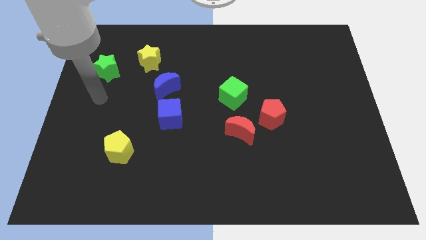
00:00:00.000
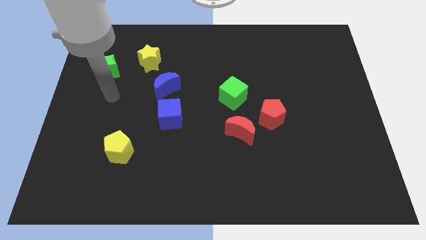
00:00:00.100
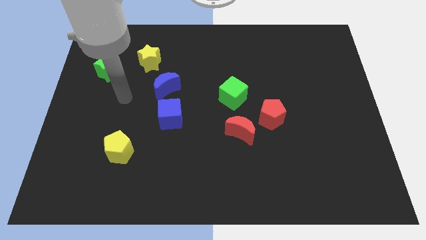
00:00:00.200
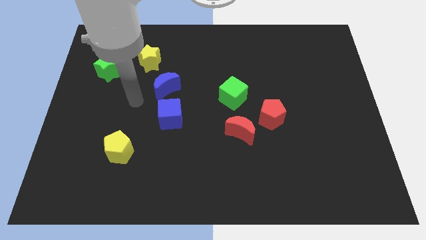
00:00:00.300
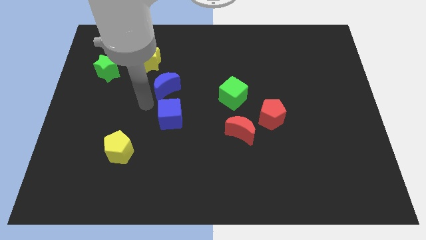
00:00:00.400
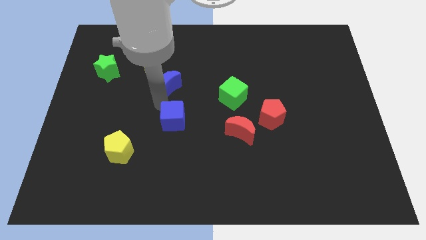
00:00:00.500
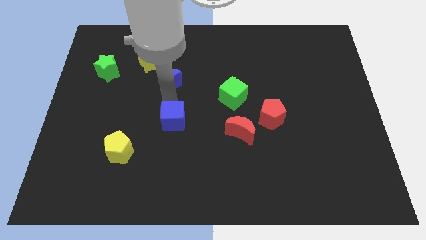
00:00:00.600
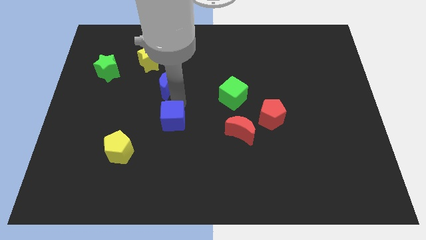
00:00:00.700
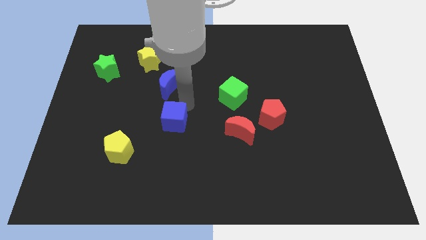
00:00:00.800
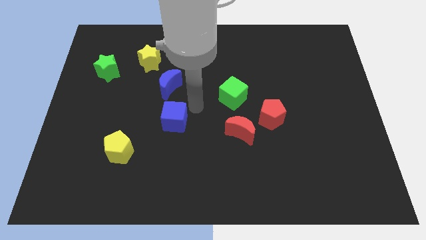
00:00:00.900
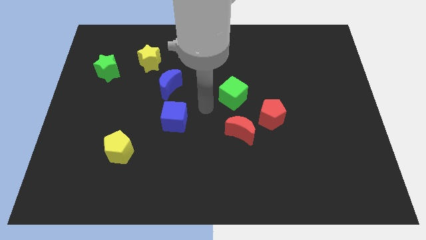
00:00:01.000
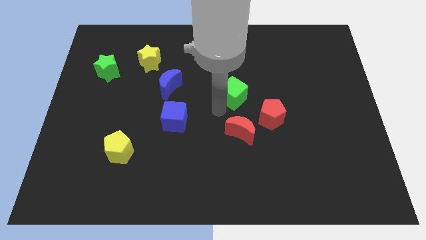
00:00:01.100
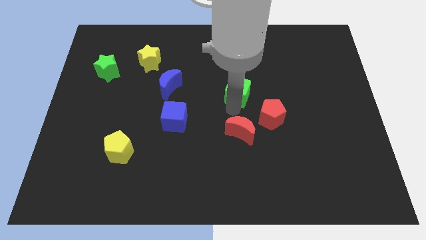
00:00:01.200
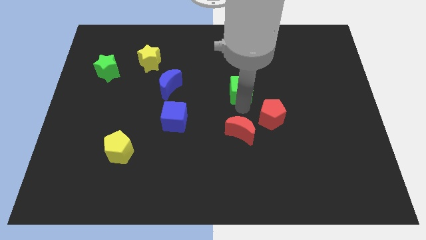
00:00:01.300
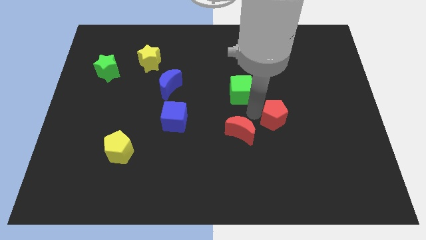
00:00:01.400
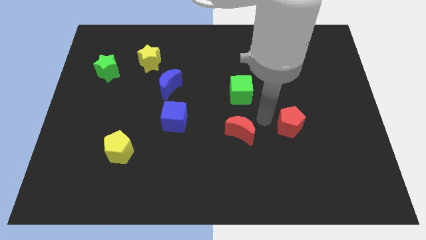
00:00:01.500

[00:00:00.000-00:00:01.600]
move the red moon away from the red pentagon

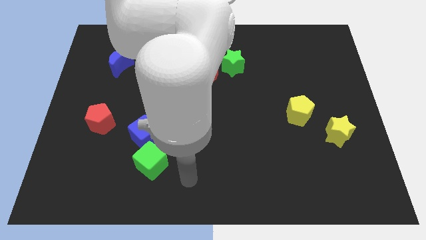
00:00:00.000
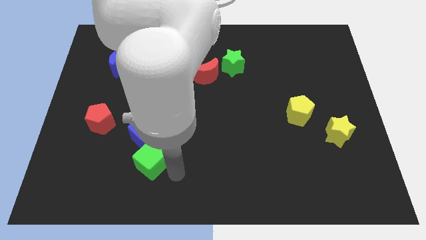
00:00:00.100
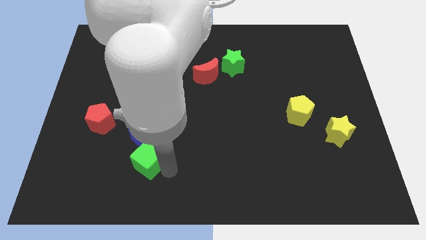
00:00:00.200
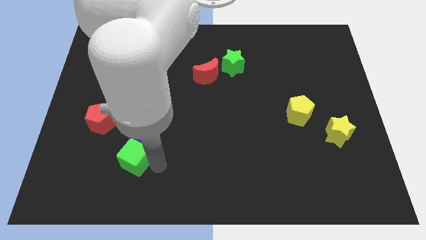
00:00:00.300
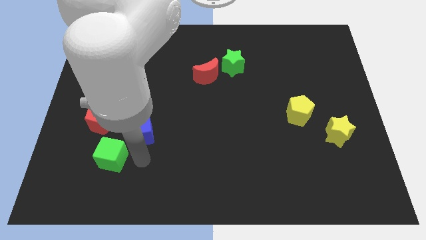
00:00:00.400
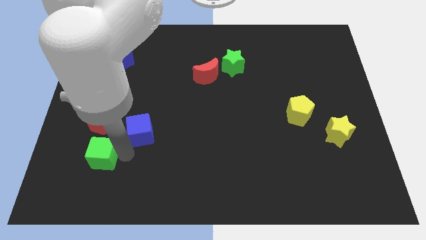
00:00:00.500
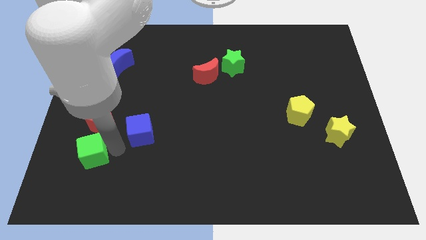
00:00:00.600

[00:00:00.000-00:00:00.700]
pull the blue cube apart from the green cube

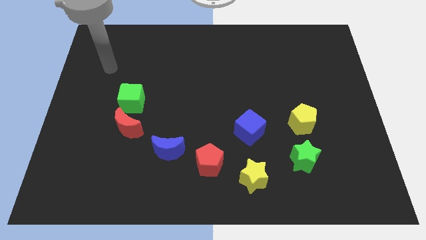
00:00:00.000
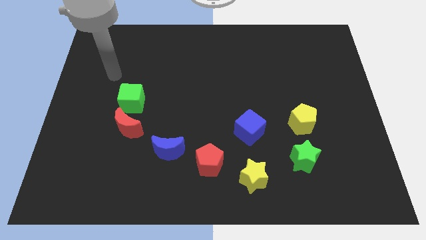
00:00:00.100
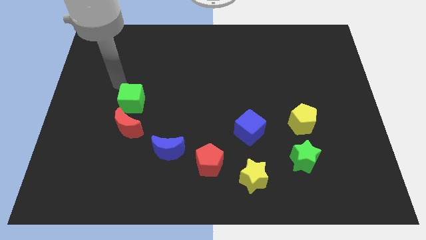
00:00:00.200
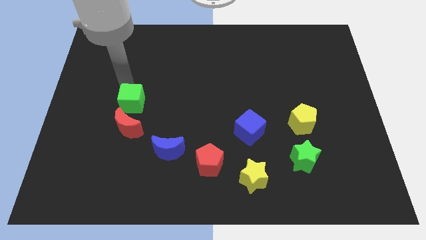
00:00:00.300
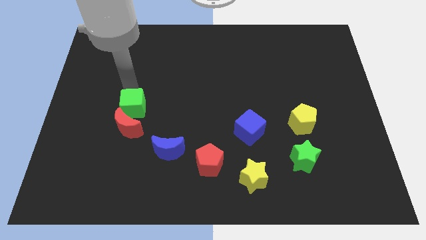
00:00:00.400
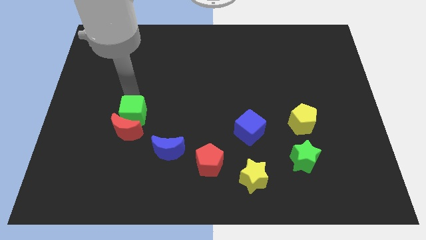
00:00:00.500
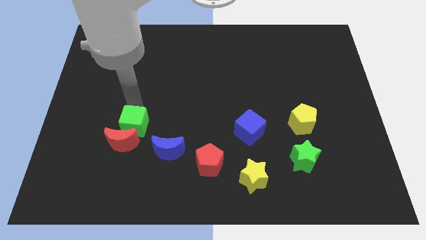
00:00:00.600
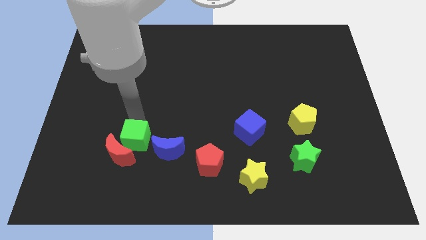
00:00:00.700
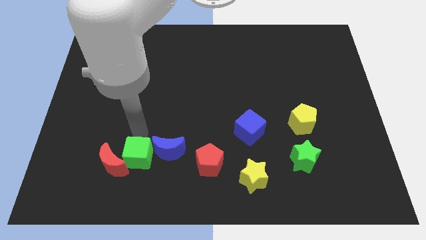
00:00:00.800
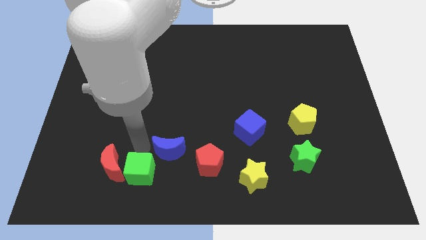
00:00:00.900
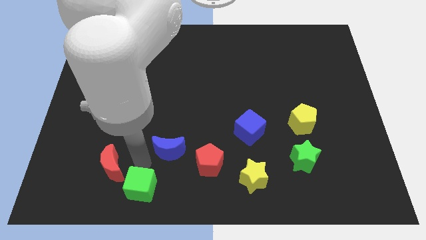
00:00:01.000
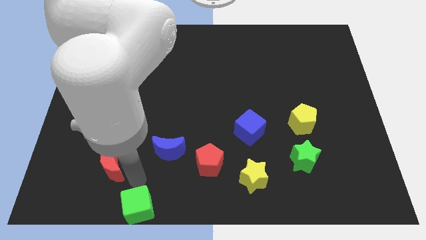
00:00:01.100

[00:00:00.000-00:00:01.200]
pull the red moon apart from the green cube

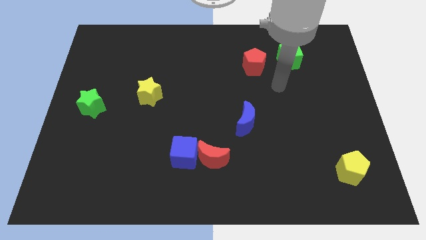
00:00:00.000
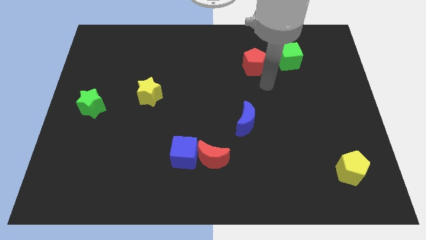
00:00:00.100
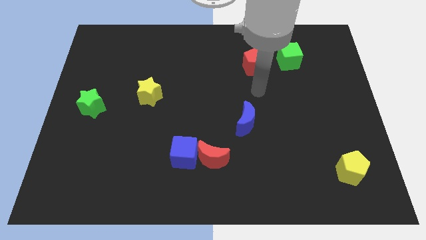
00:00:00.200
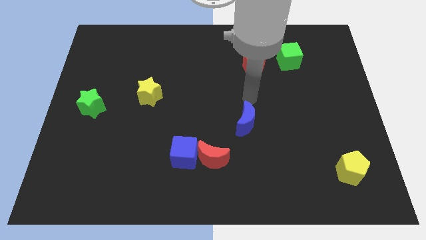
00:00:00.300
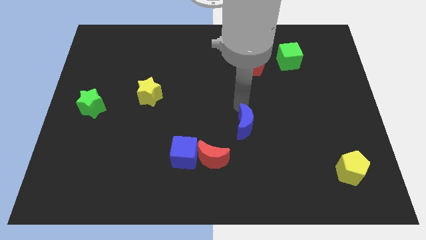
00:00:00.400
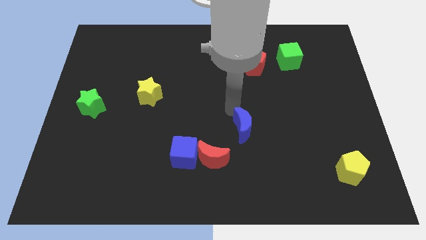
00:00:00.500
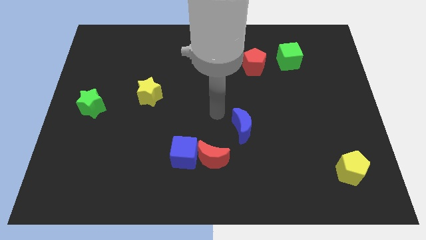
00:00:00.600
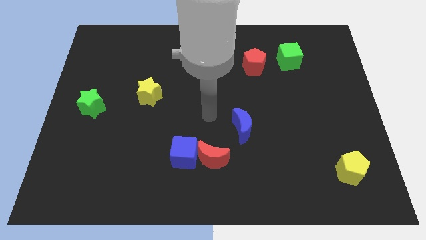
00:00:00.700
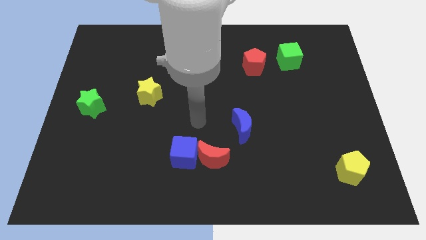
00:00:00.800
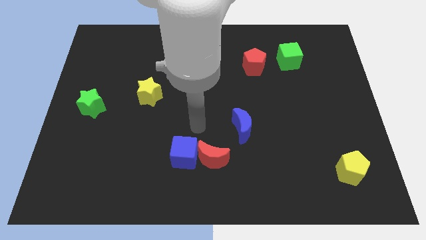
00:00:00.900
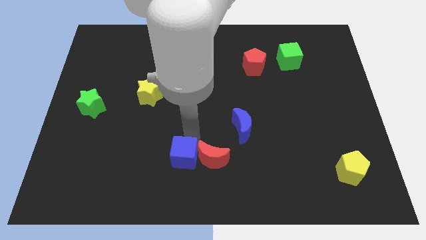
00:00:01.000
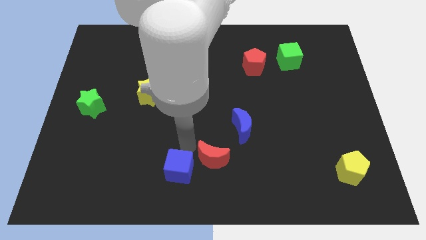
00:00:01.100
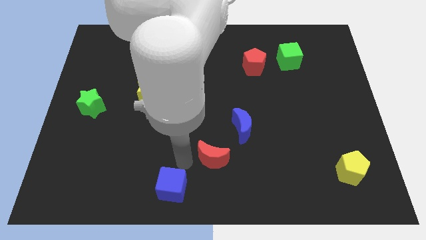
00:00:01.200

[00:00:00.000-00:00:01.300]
separate the red moon from the blue cube

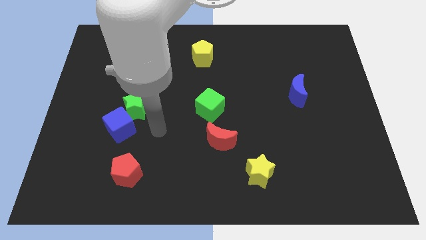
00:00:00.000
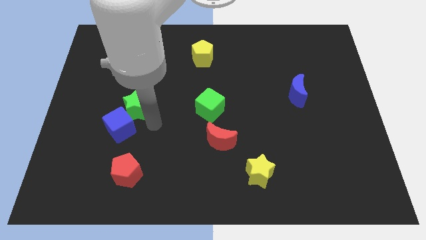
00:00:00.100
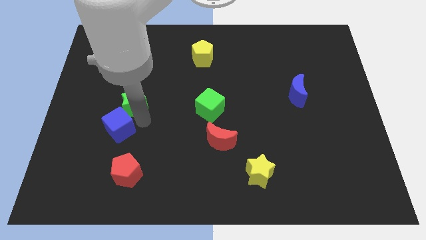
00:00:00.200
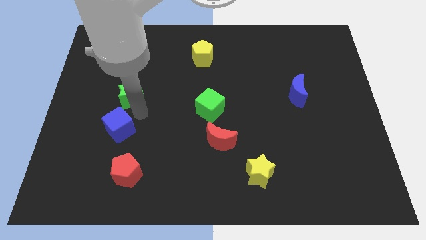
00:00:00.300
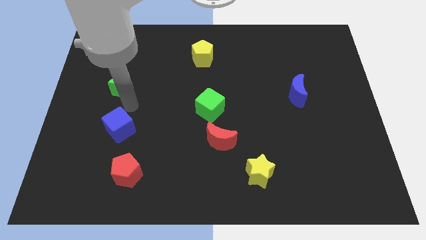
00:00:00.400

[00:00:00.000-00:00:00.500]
separate the blue cube from the green star

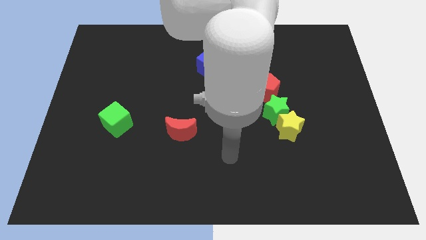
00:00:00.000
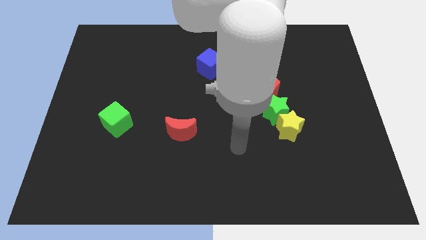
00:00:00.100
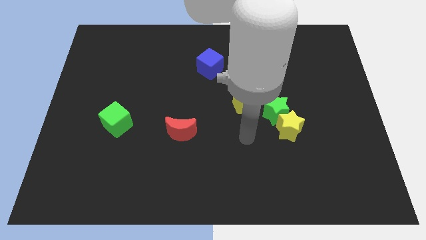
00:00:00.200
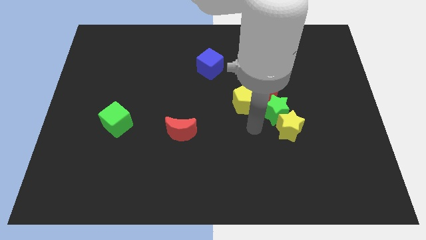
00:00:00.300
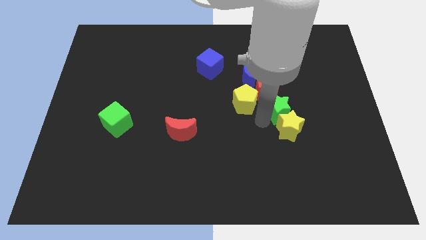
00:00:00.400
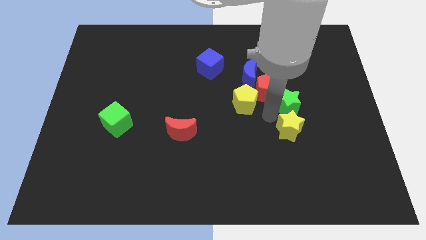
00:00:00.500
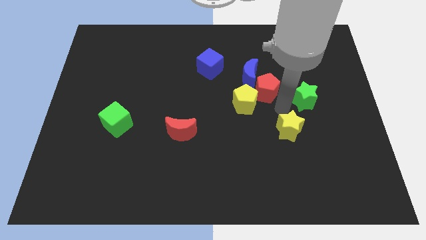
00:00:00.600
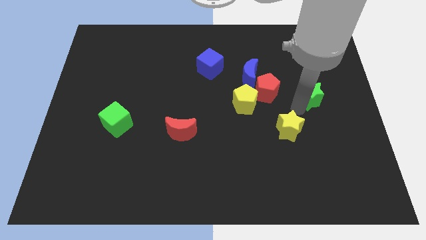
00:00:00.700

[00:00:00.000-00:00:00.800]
pull the yellow star apart from the green star

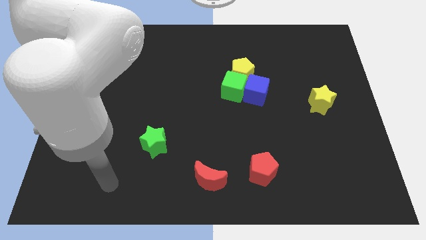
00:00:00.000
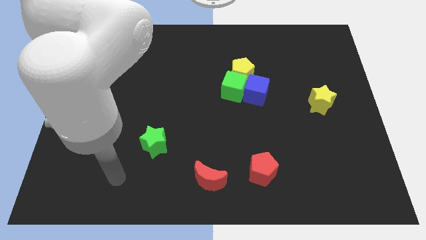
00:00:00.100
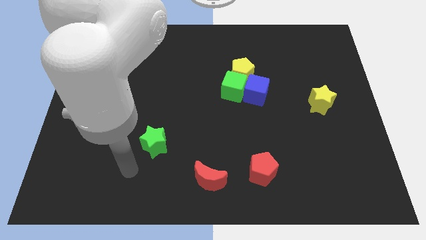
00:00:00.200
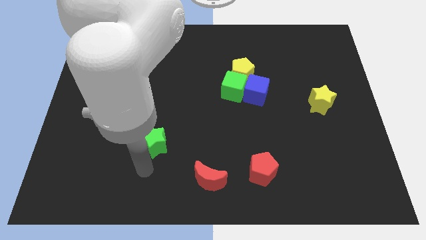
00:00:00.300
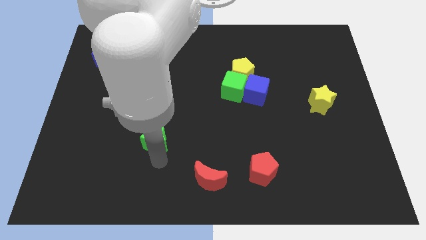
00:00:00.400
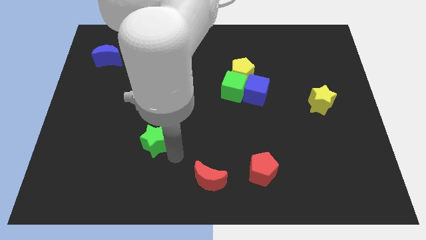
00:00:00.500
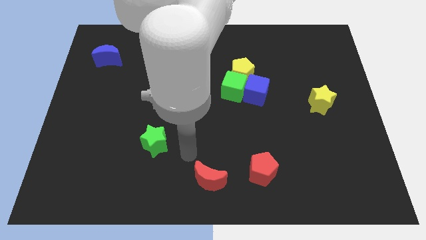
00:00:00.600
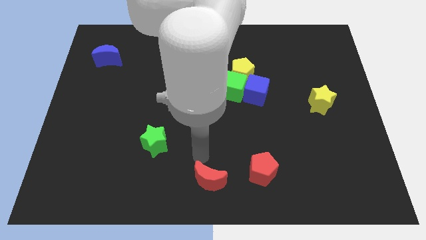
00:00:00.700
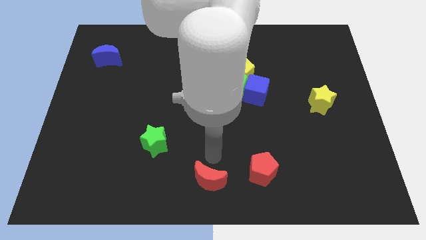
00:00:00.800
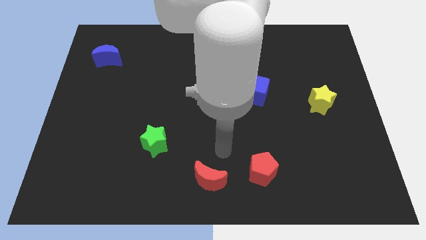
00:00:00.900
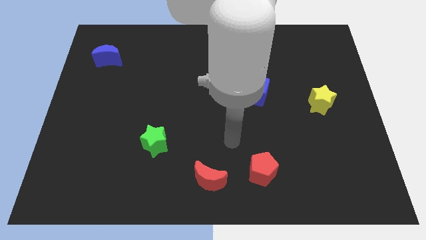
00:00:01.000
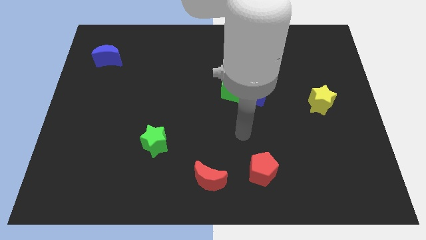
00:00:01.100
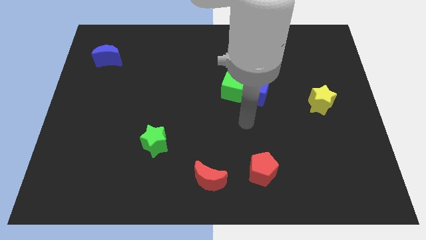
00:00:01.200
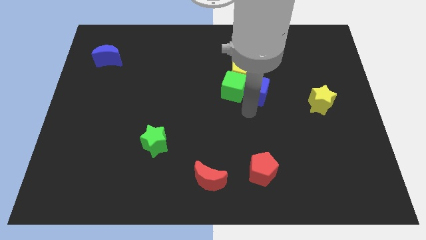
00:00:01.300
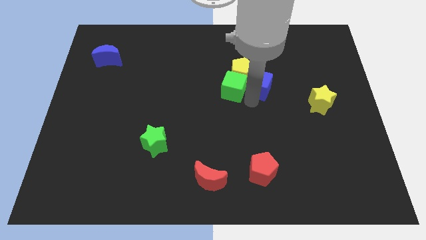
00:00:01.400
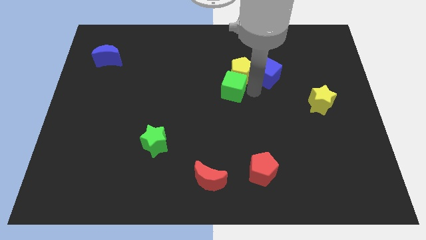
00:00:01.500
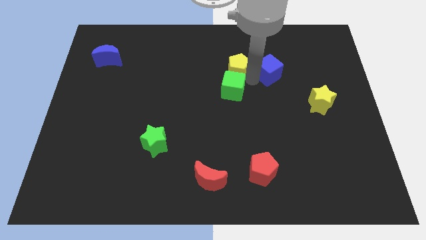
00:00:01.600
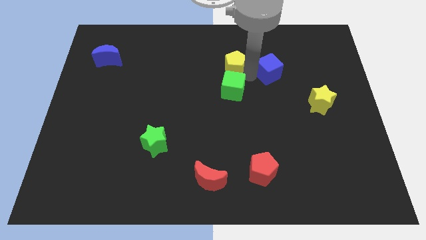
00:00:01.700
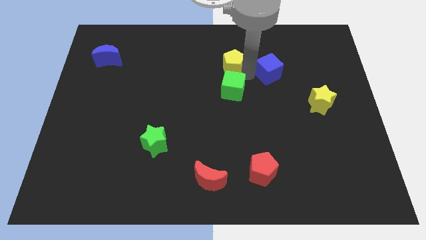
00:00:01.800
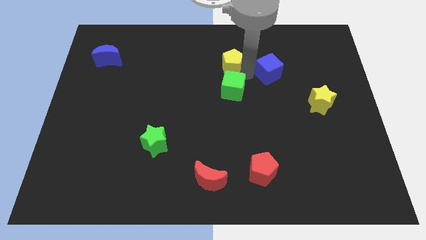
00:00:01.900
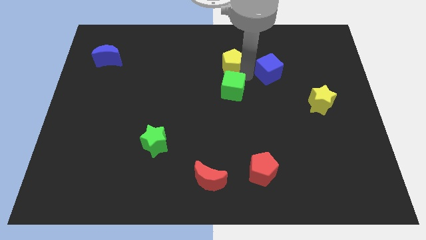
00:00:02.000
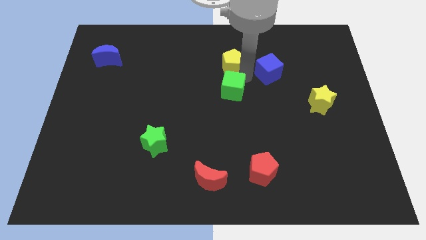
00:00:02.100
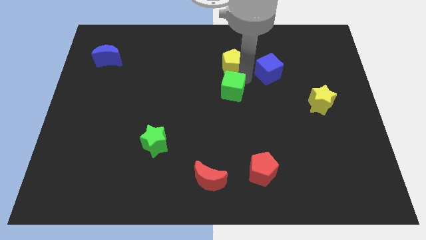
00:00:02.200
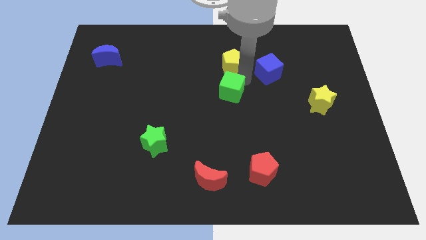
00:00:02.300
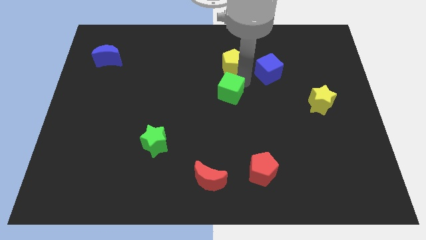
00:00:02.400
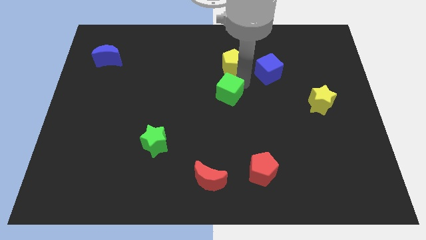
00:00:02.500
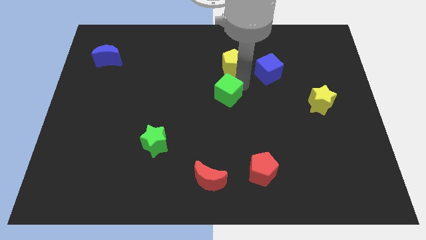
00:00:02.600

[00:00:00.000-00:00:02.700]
separate the green cube from the blue cube and yellow pentagon

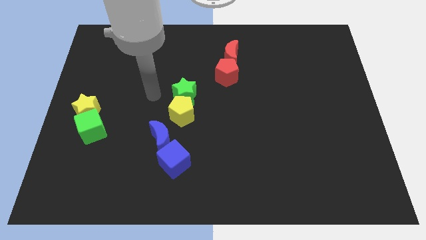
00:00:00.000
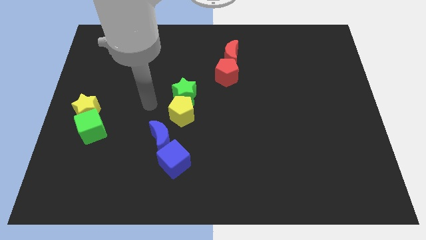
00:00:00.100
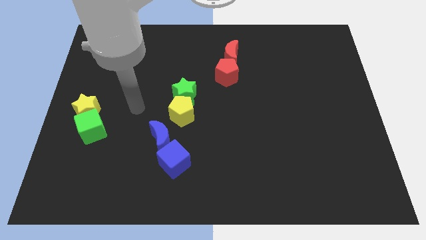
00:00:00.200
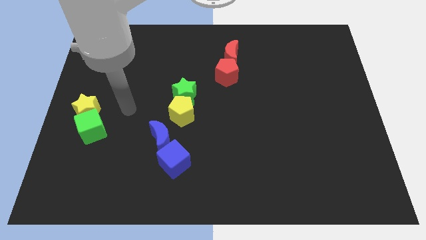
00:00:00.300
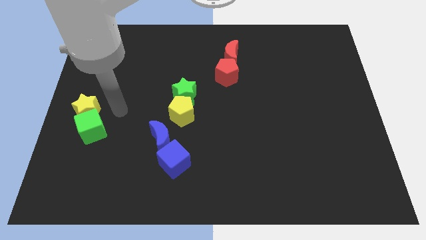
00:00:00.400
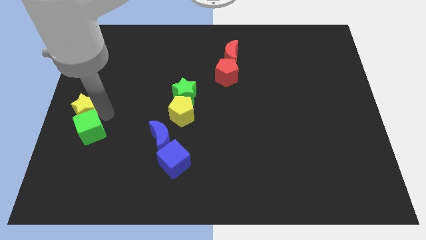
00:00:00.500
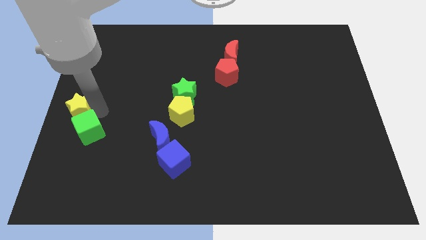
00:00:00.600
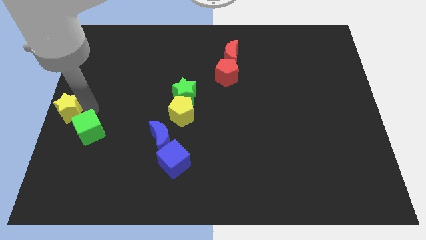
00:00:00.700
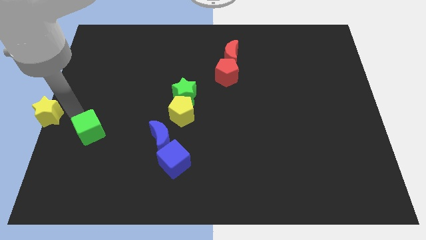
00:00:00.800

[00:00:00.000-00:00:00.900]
pull the green cube apart from the yellow star
